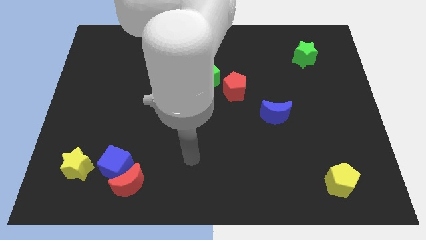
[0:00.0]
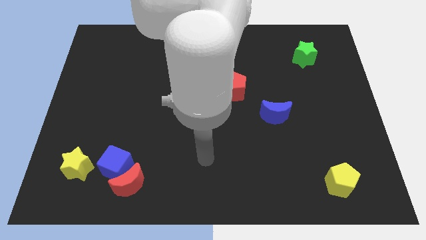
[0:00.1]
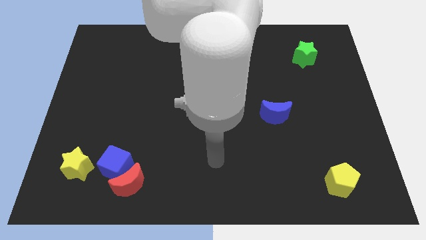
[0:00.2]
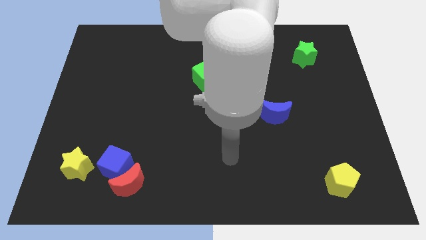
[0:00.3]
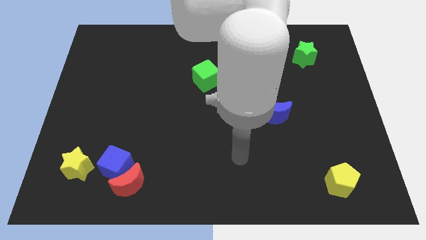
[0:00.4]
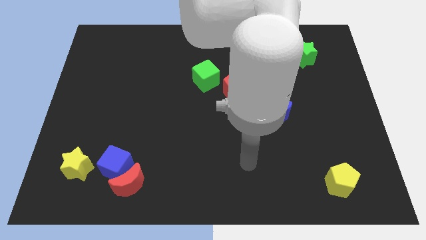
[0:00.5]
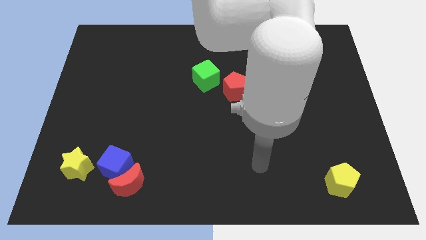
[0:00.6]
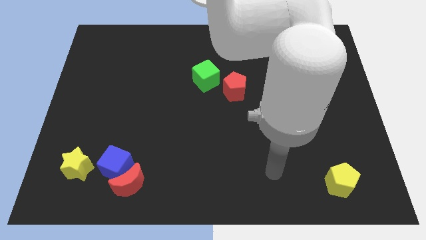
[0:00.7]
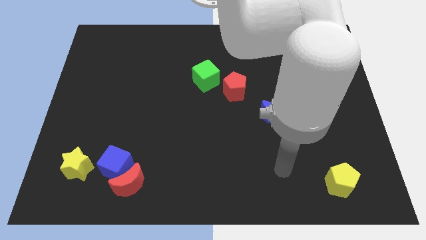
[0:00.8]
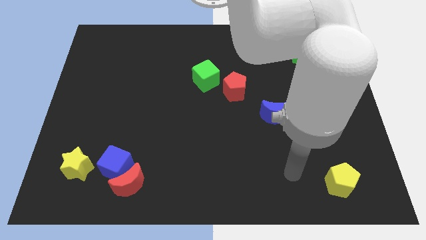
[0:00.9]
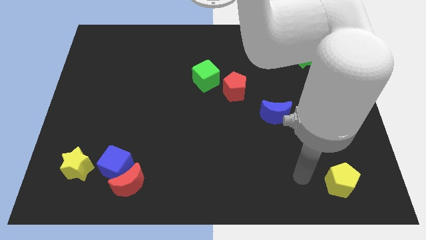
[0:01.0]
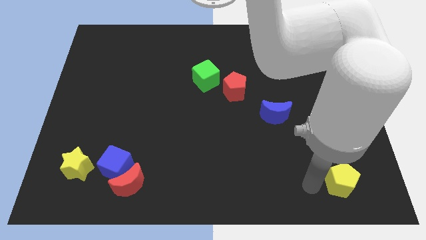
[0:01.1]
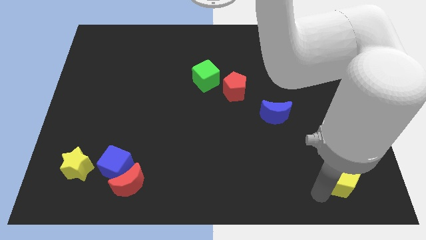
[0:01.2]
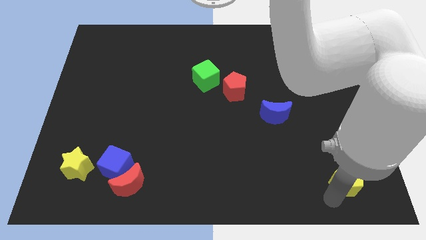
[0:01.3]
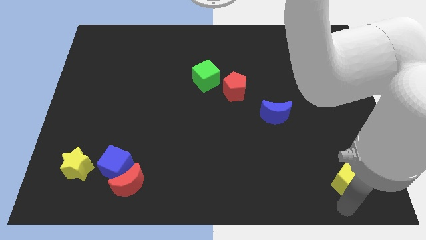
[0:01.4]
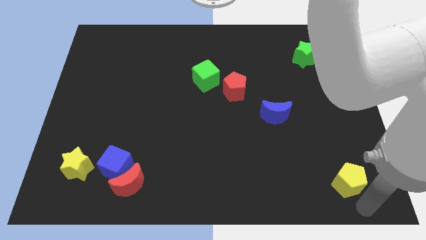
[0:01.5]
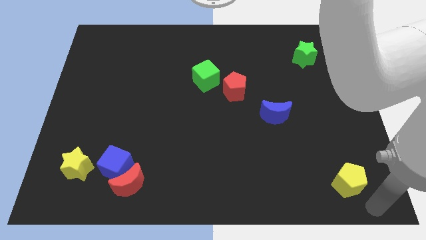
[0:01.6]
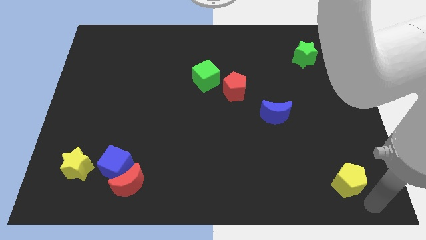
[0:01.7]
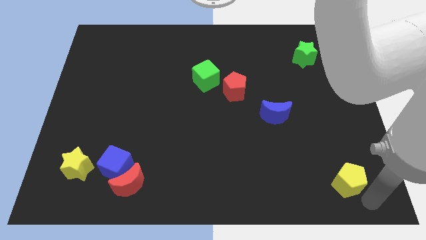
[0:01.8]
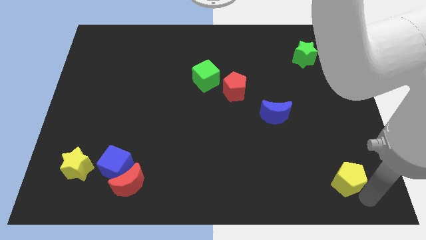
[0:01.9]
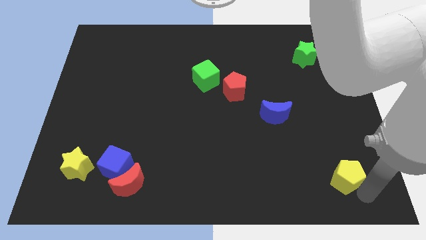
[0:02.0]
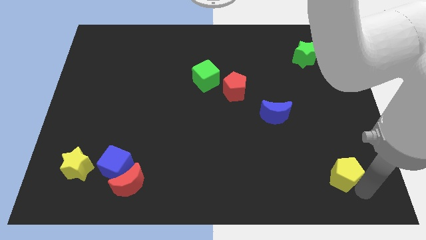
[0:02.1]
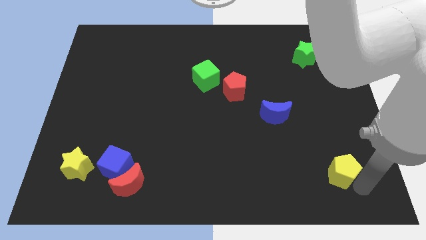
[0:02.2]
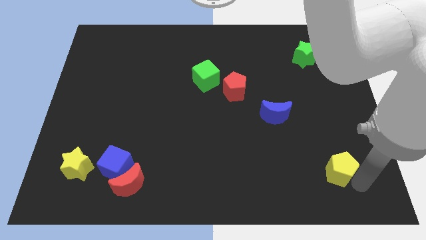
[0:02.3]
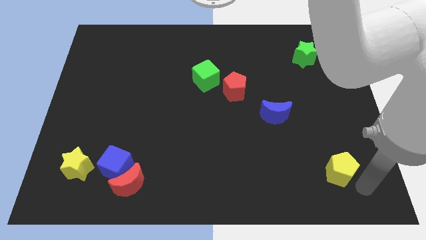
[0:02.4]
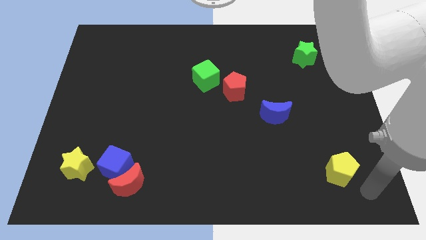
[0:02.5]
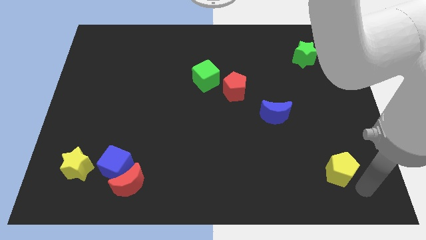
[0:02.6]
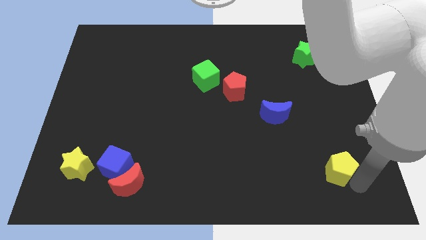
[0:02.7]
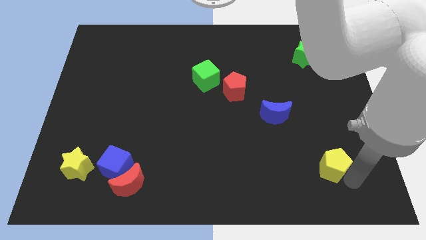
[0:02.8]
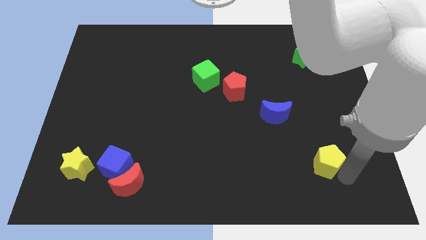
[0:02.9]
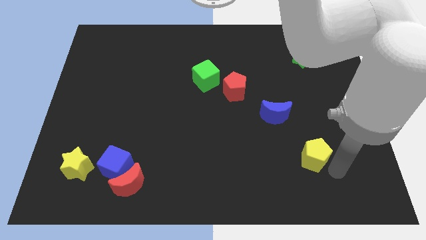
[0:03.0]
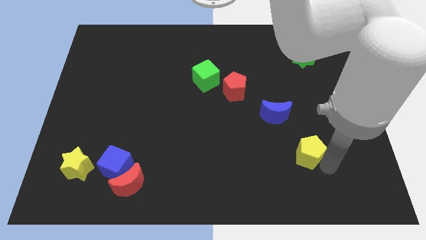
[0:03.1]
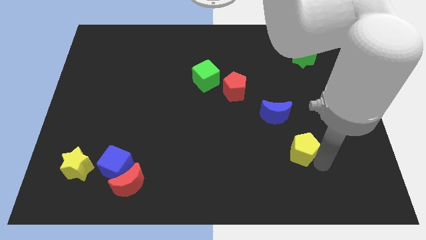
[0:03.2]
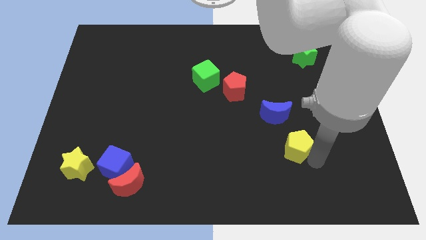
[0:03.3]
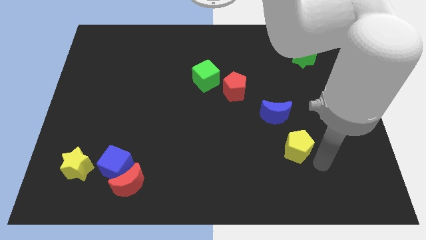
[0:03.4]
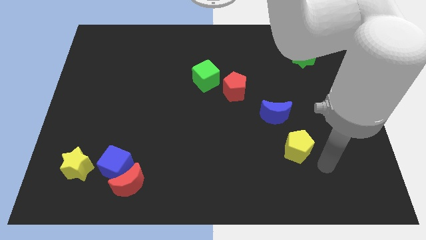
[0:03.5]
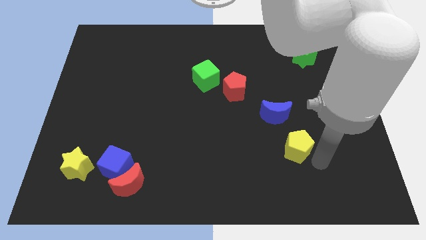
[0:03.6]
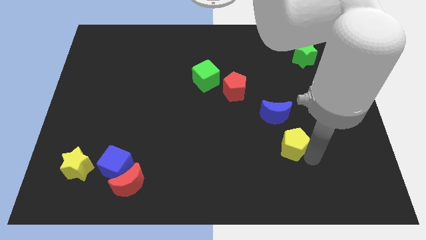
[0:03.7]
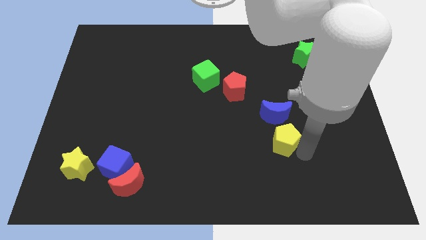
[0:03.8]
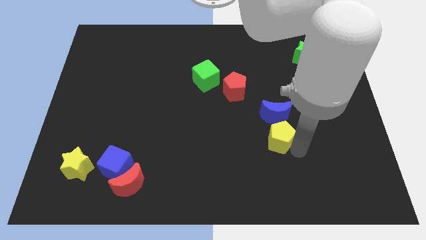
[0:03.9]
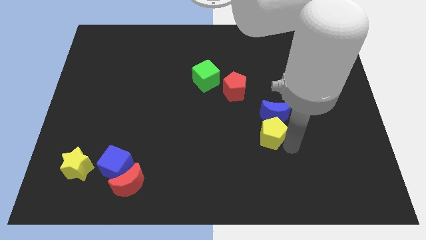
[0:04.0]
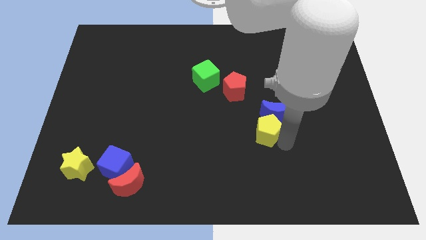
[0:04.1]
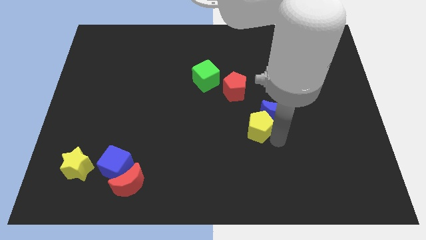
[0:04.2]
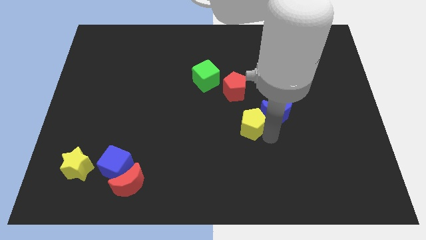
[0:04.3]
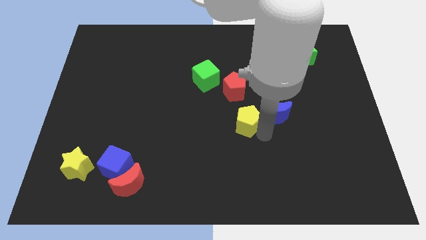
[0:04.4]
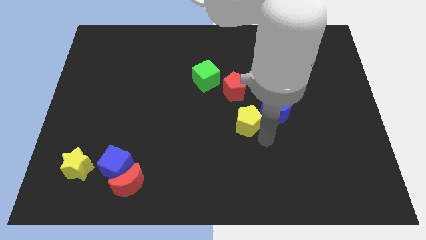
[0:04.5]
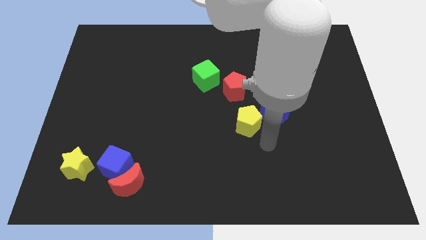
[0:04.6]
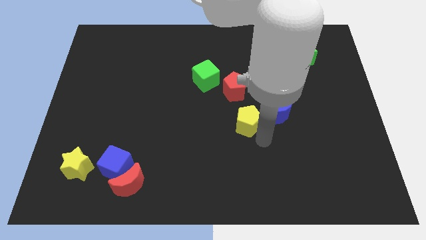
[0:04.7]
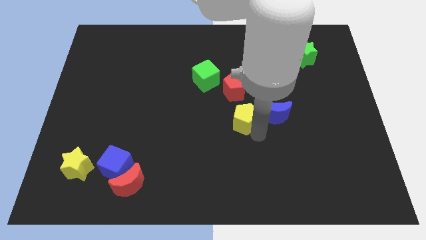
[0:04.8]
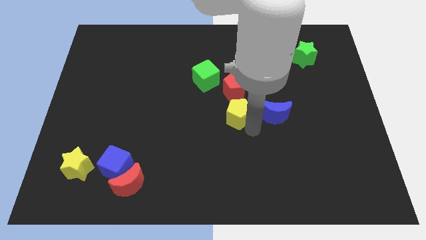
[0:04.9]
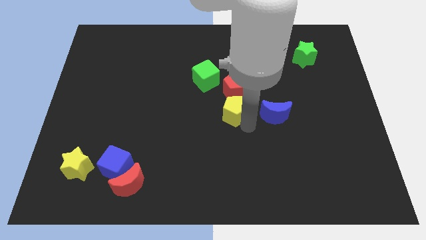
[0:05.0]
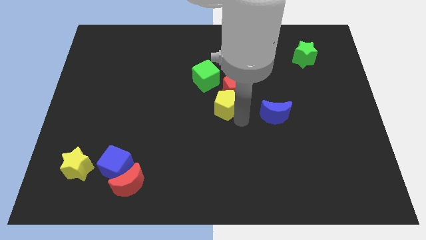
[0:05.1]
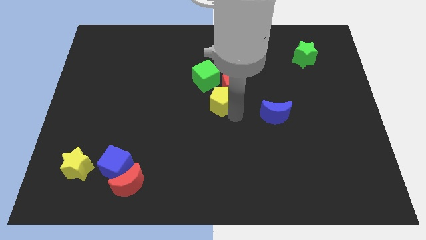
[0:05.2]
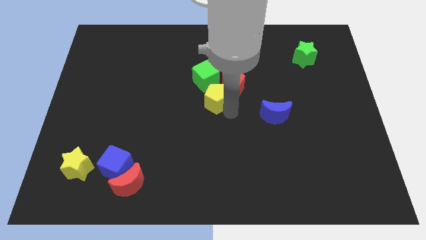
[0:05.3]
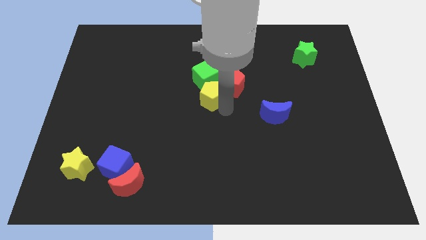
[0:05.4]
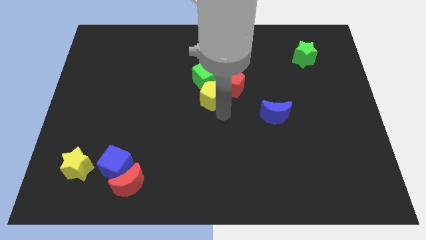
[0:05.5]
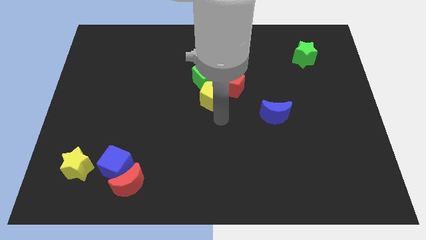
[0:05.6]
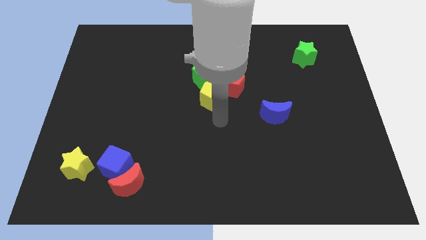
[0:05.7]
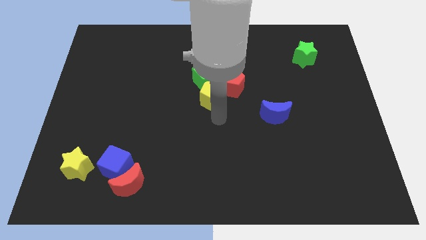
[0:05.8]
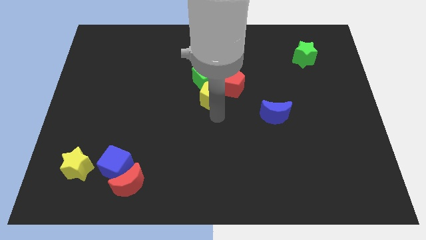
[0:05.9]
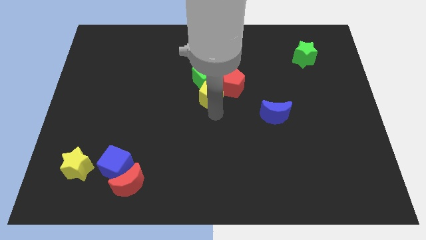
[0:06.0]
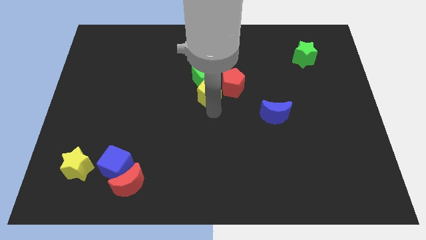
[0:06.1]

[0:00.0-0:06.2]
push the yellow pentagon next to the green cube
